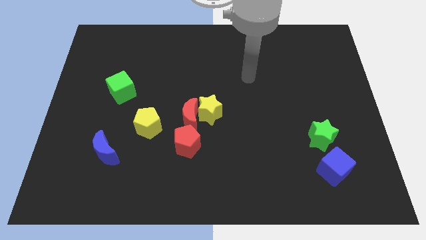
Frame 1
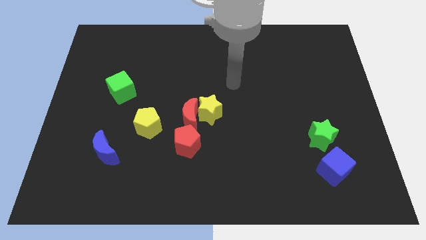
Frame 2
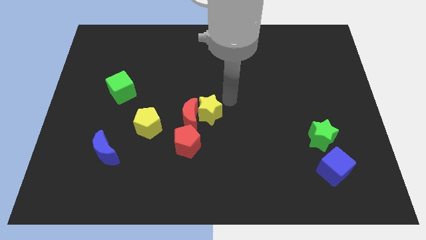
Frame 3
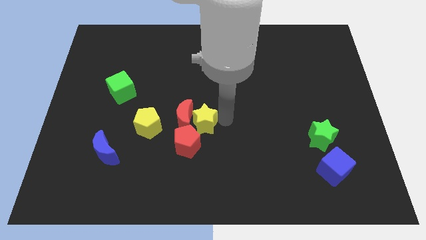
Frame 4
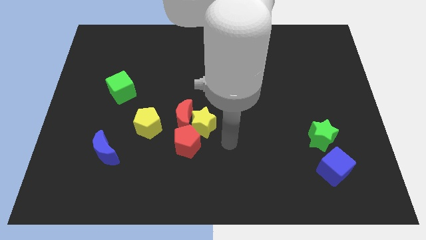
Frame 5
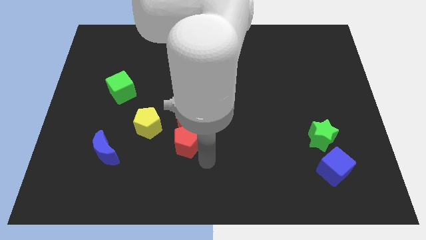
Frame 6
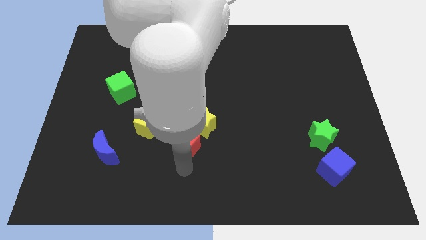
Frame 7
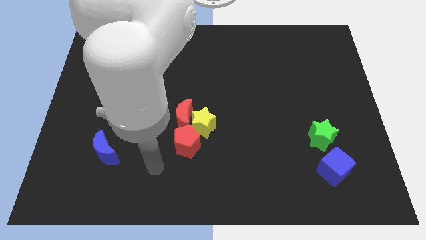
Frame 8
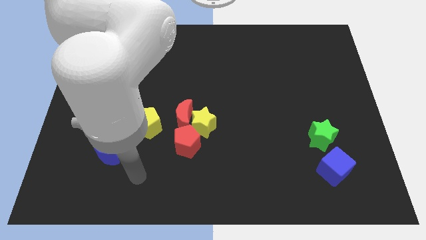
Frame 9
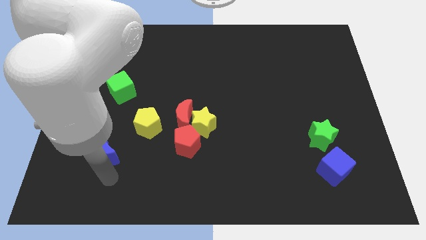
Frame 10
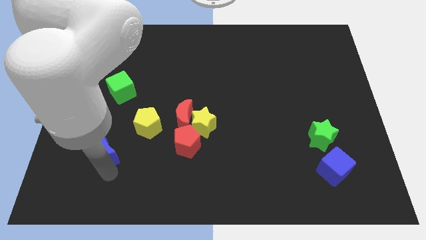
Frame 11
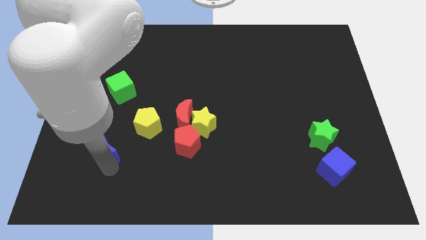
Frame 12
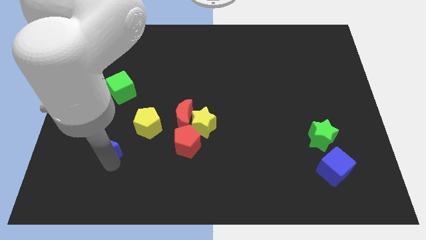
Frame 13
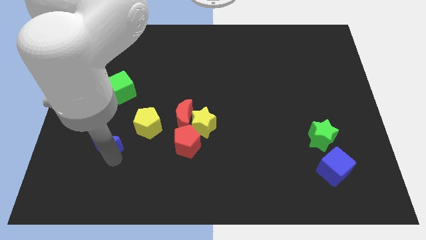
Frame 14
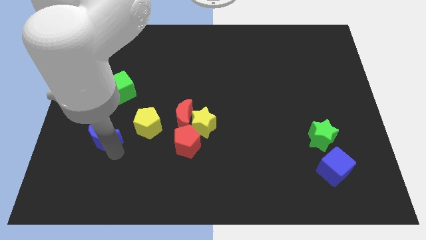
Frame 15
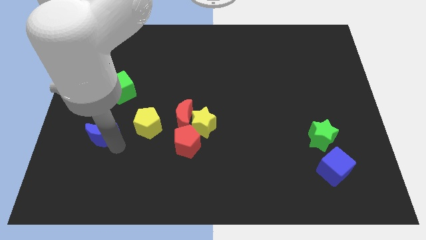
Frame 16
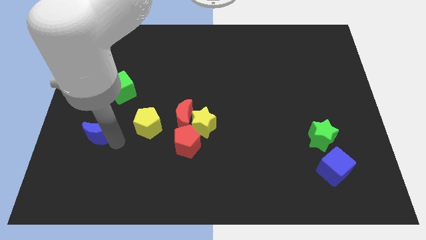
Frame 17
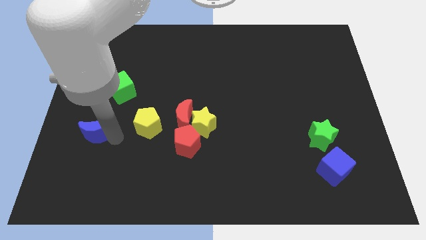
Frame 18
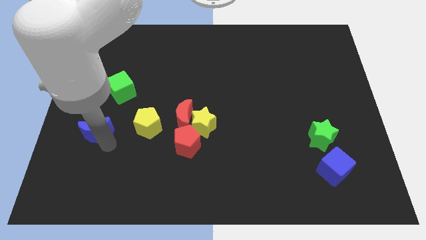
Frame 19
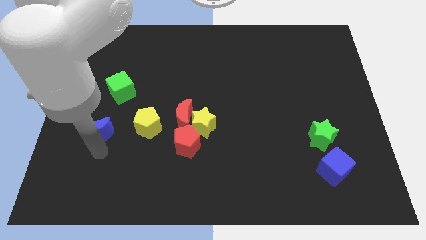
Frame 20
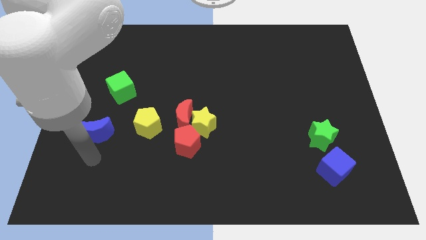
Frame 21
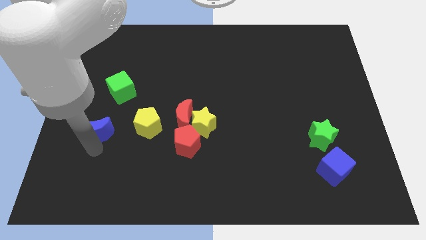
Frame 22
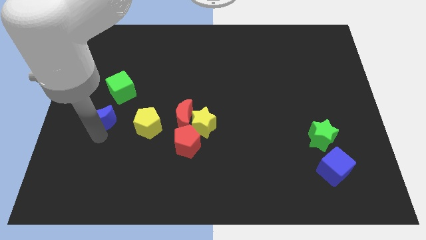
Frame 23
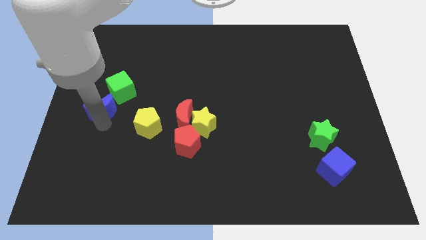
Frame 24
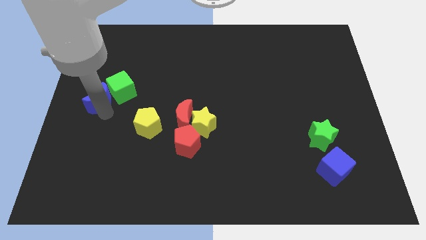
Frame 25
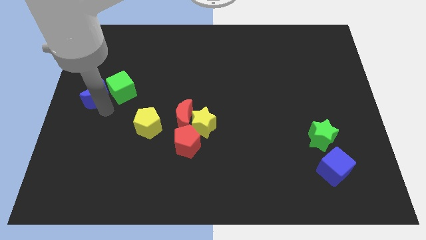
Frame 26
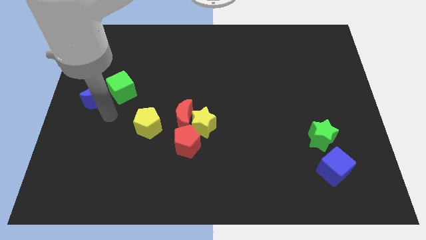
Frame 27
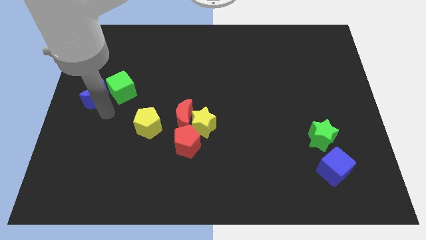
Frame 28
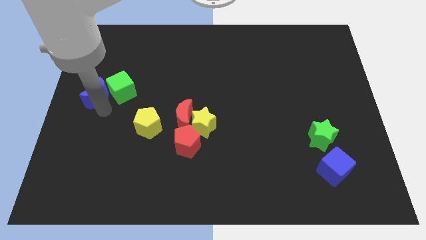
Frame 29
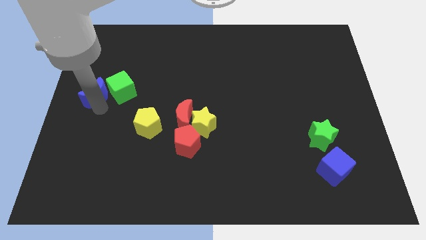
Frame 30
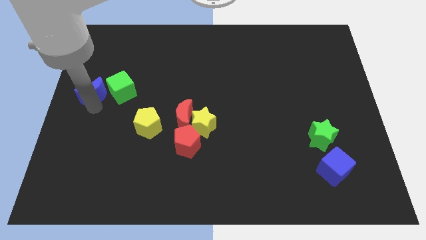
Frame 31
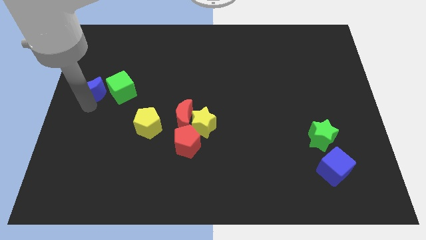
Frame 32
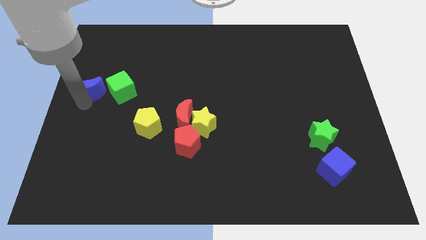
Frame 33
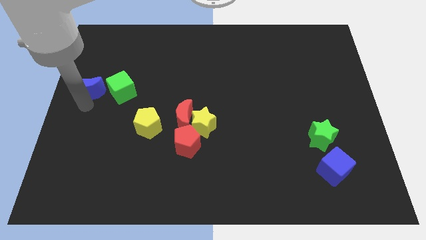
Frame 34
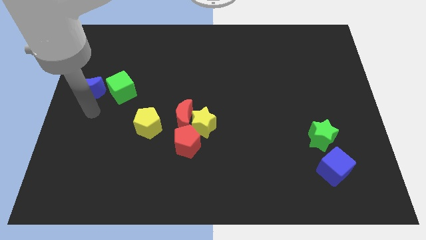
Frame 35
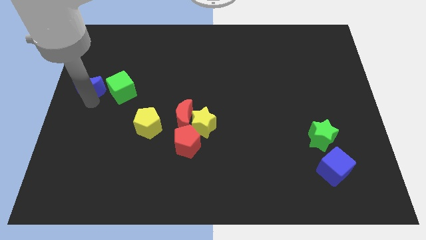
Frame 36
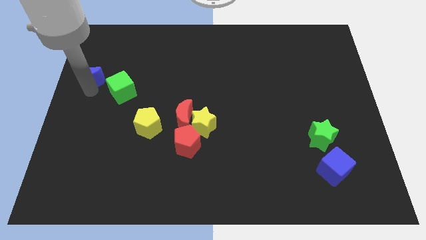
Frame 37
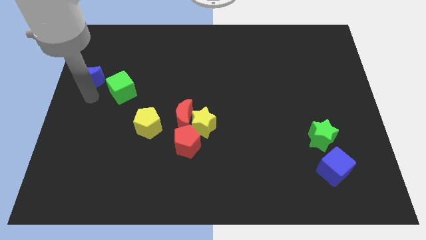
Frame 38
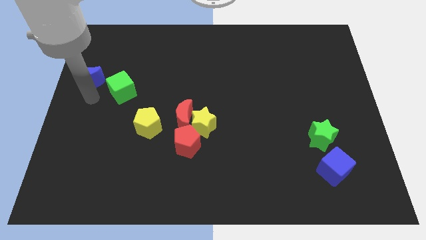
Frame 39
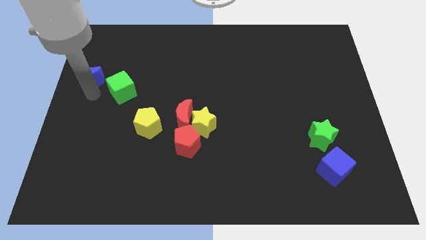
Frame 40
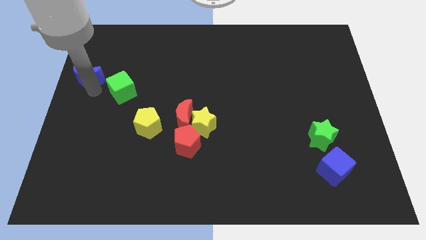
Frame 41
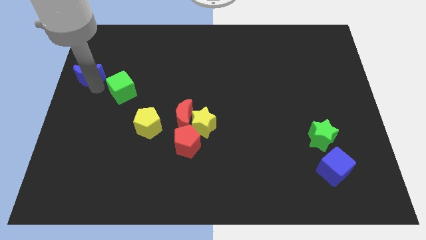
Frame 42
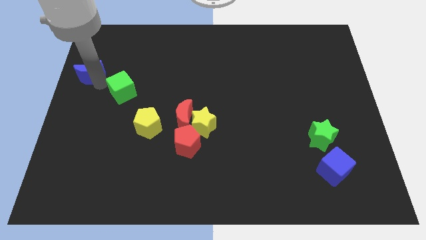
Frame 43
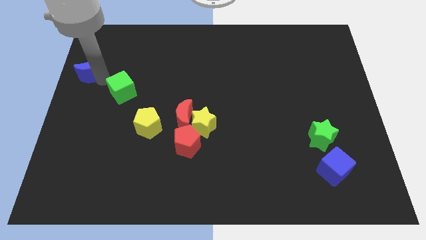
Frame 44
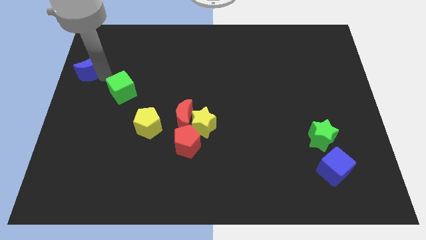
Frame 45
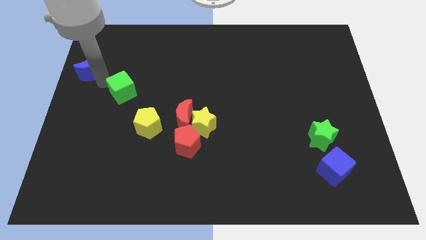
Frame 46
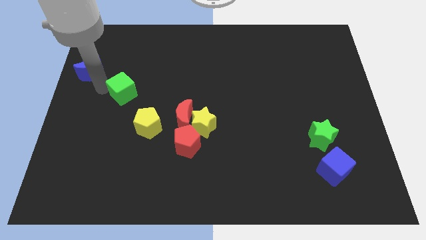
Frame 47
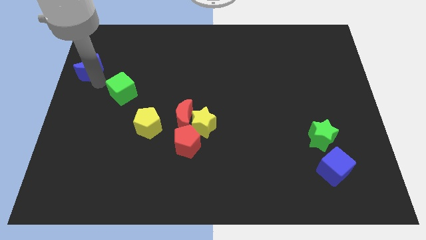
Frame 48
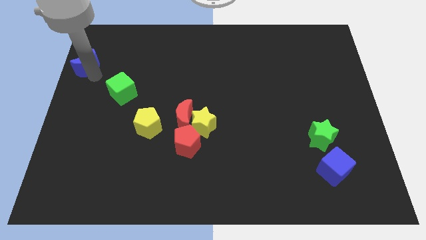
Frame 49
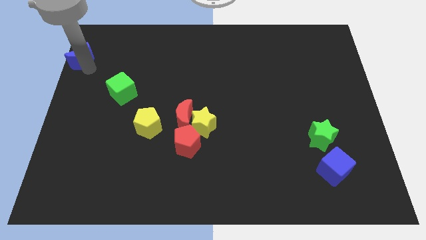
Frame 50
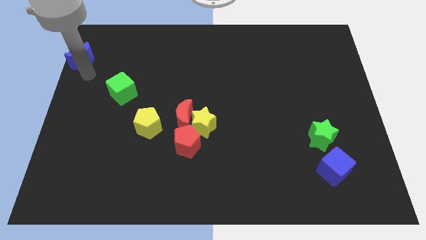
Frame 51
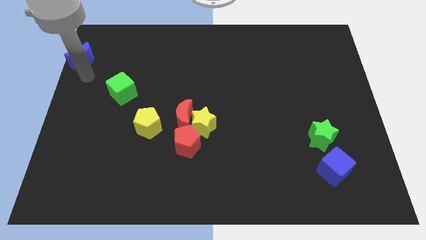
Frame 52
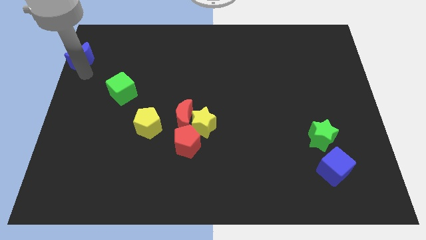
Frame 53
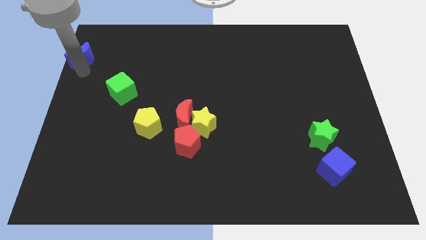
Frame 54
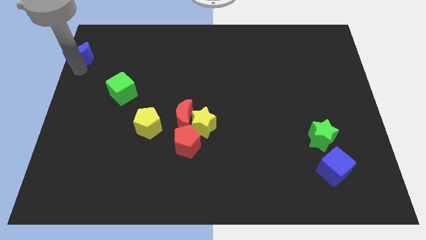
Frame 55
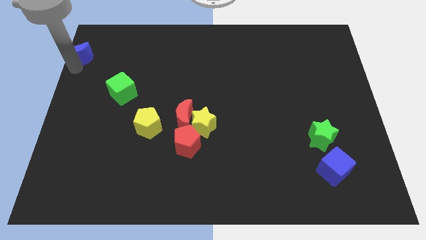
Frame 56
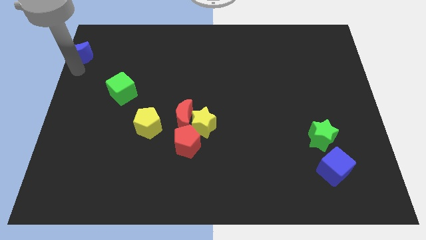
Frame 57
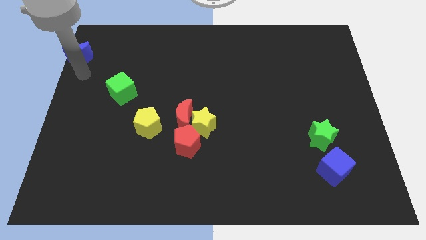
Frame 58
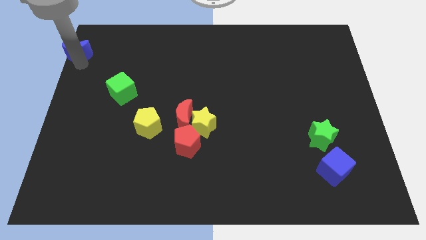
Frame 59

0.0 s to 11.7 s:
move the blue moon to the top left

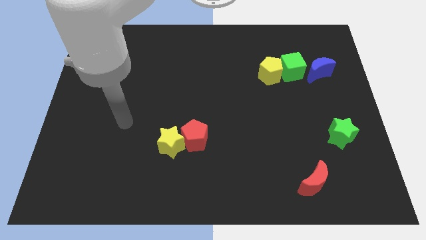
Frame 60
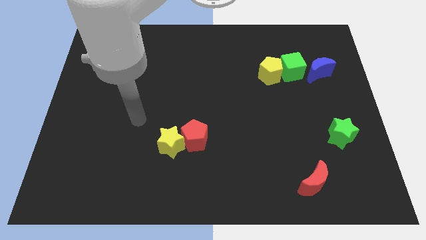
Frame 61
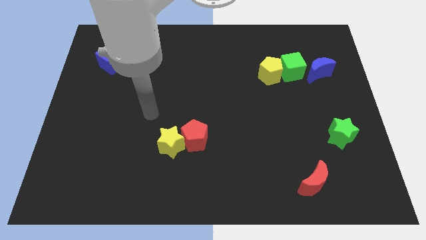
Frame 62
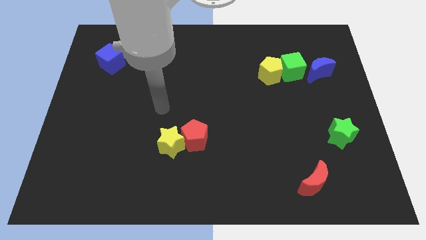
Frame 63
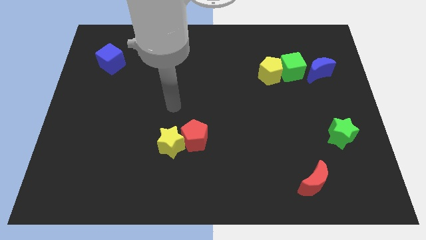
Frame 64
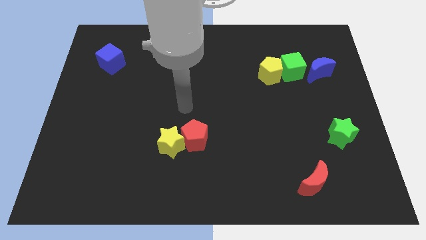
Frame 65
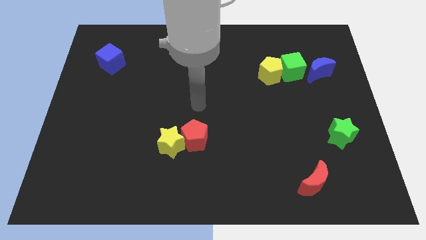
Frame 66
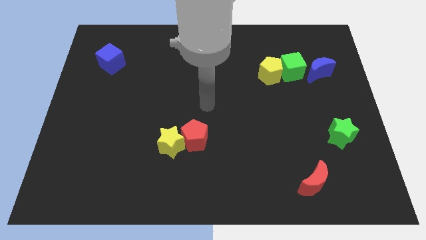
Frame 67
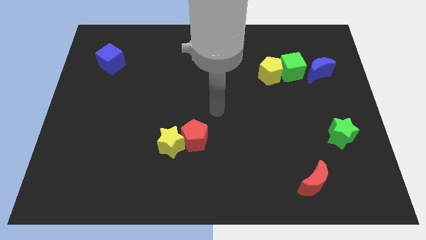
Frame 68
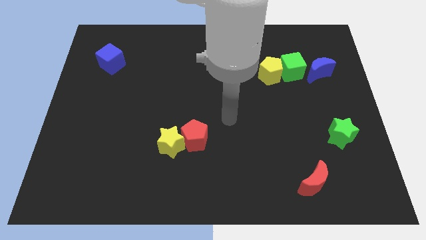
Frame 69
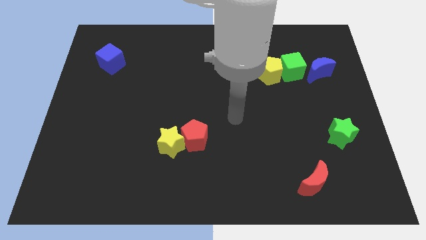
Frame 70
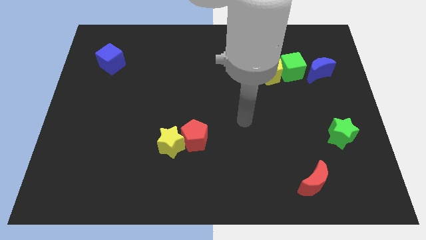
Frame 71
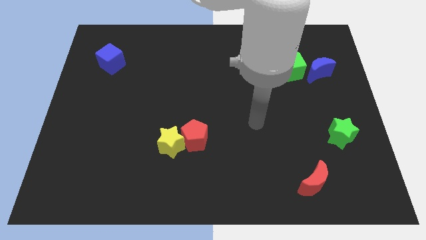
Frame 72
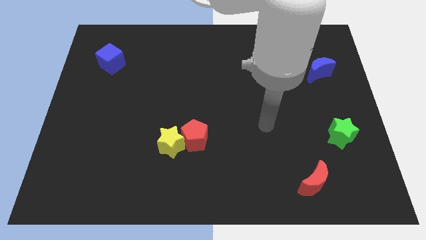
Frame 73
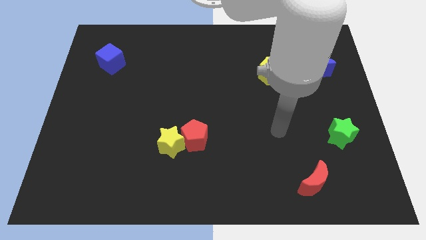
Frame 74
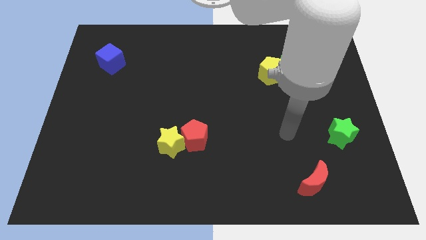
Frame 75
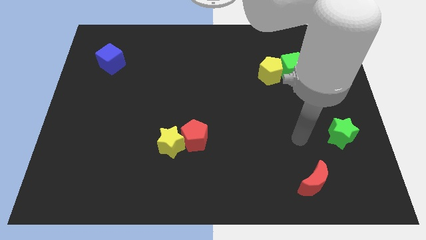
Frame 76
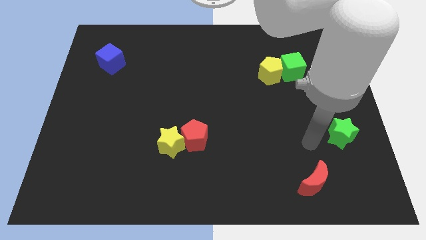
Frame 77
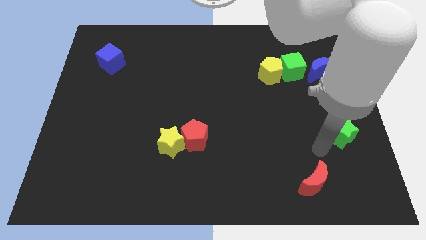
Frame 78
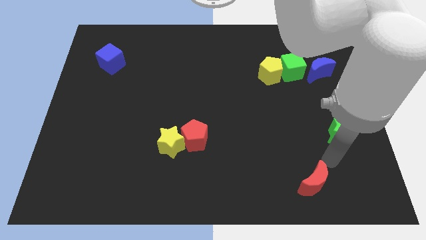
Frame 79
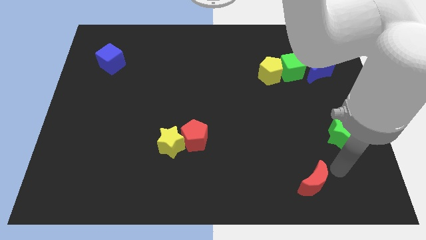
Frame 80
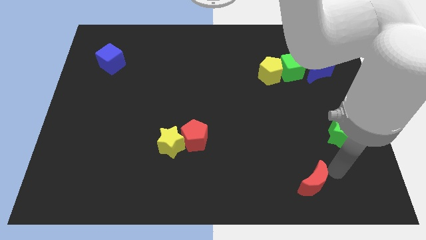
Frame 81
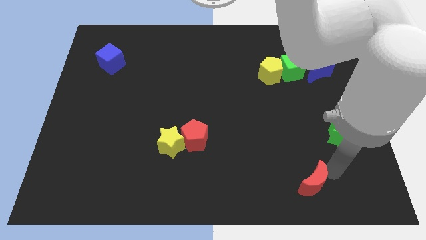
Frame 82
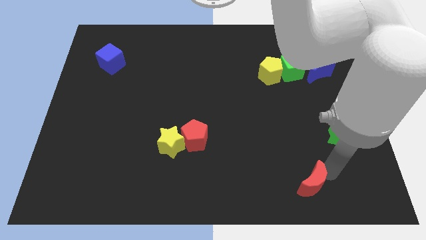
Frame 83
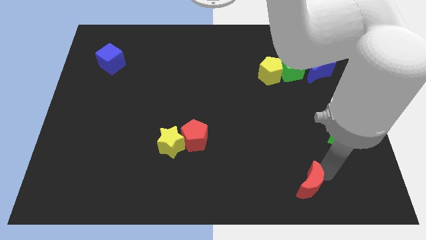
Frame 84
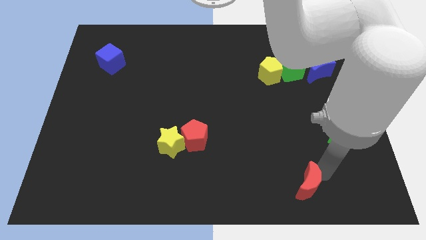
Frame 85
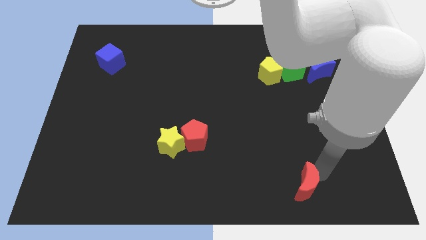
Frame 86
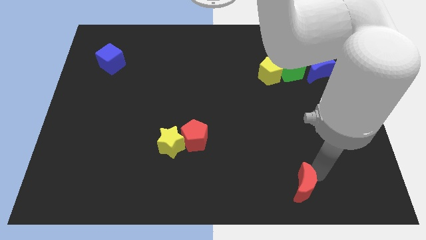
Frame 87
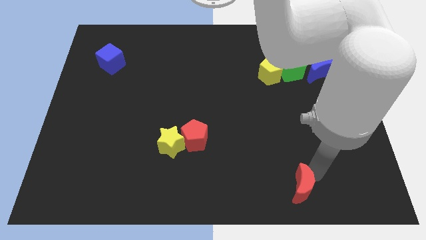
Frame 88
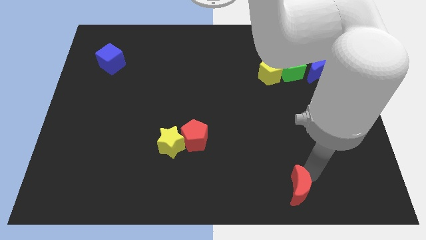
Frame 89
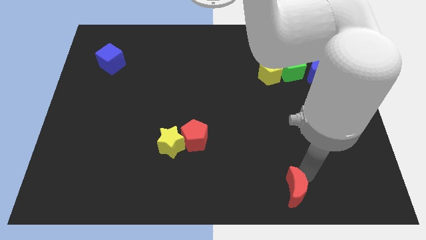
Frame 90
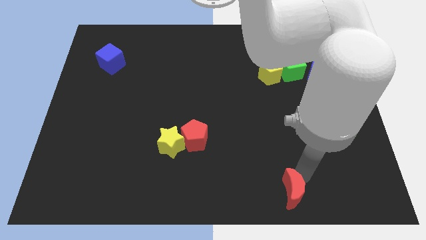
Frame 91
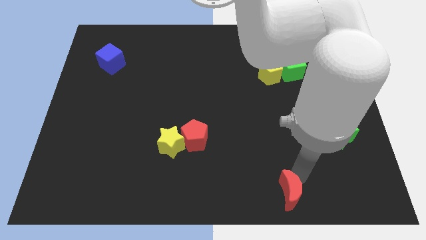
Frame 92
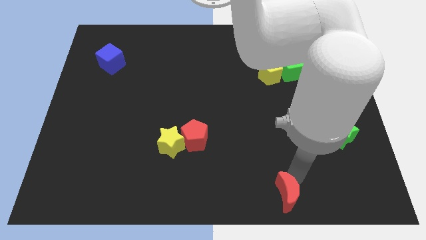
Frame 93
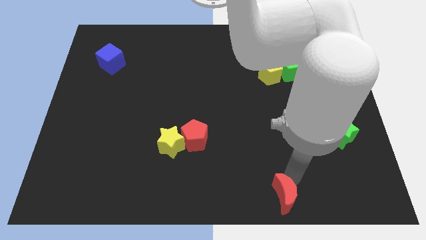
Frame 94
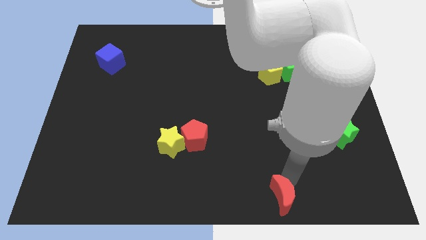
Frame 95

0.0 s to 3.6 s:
slide the red moon to the bottom side
